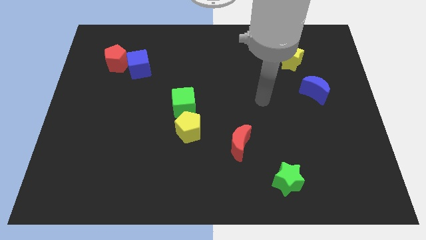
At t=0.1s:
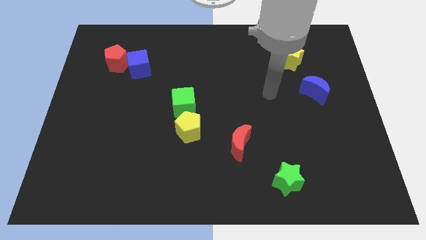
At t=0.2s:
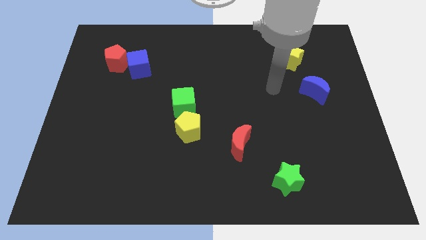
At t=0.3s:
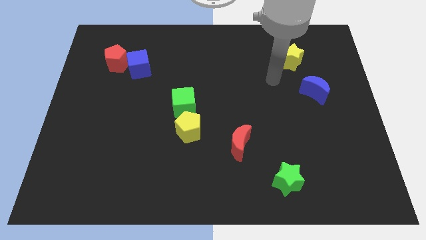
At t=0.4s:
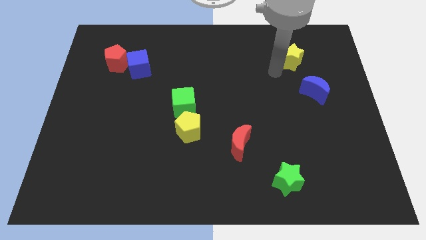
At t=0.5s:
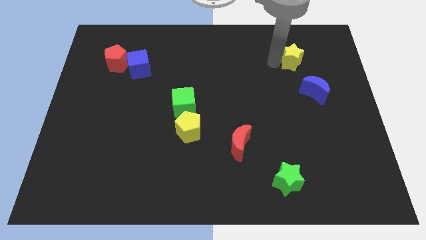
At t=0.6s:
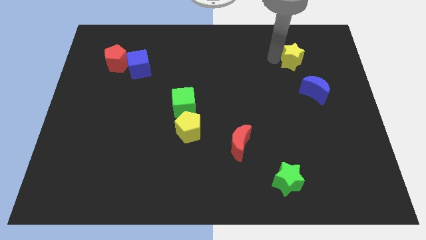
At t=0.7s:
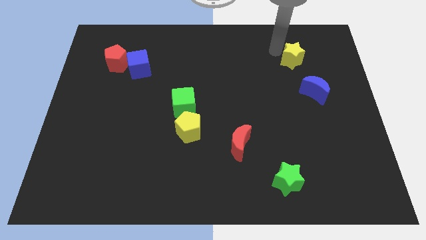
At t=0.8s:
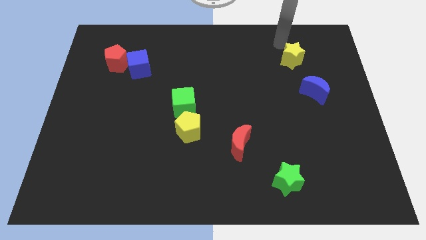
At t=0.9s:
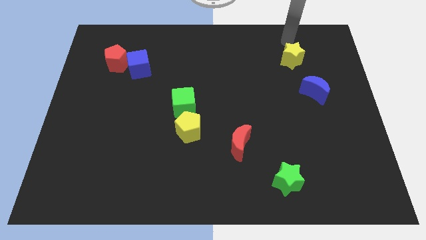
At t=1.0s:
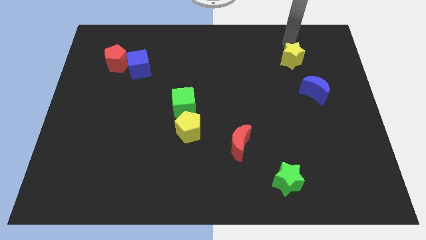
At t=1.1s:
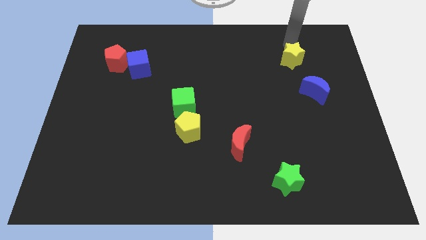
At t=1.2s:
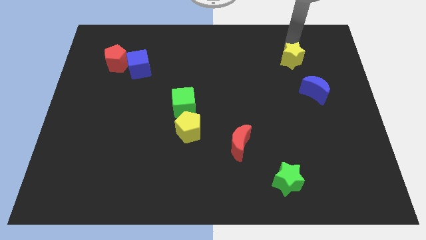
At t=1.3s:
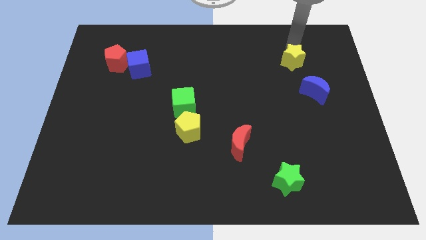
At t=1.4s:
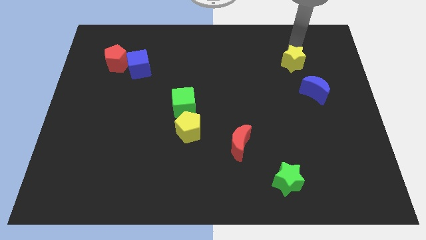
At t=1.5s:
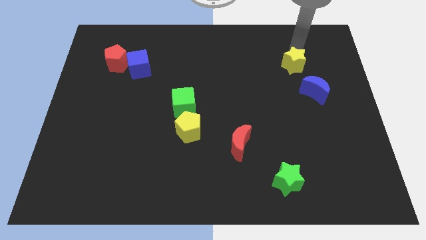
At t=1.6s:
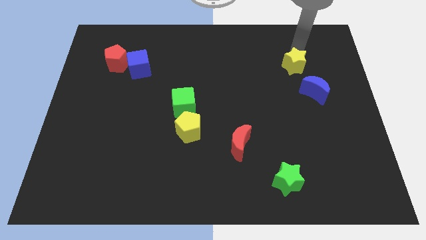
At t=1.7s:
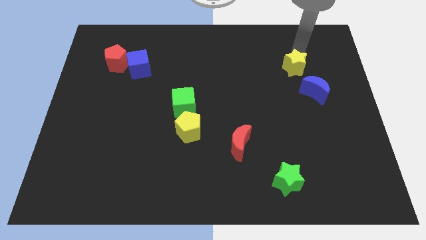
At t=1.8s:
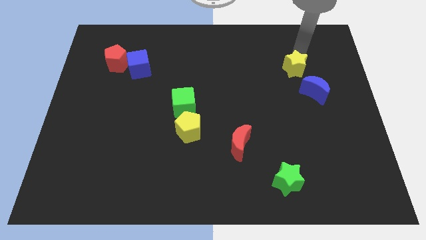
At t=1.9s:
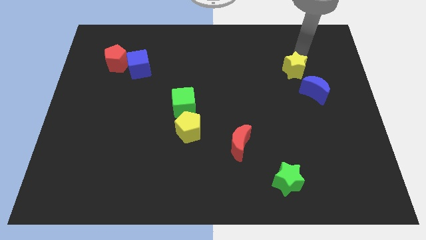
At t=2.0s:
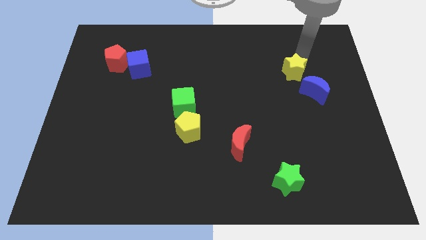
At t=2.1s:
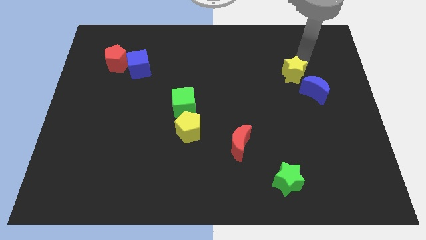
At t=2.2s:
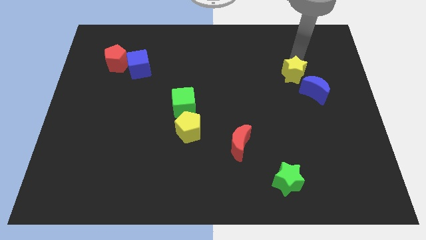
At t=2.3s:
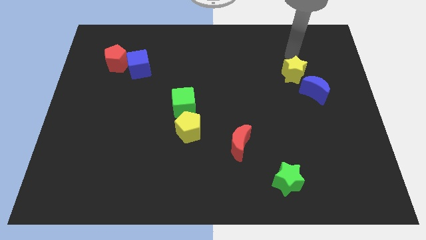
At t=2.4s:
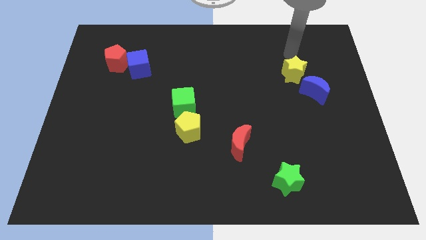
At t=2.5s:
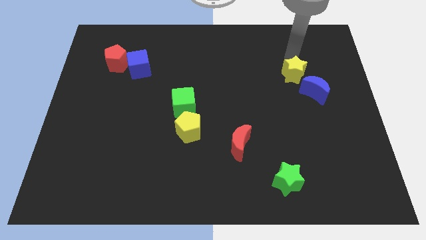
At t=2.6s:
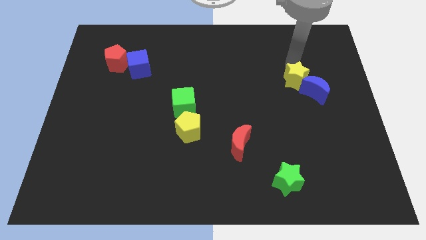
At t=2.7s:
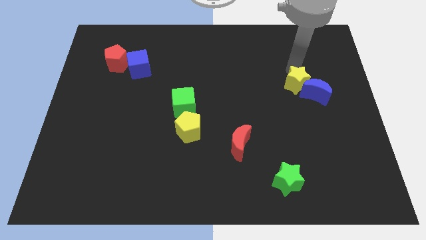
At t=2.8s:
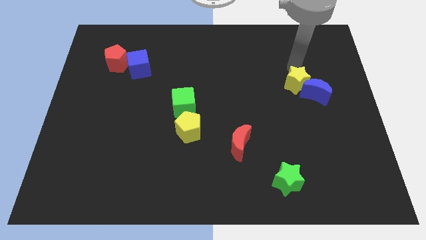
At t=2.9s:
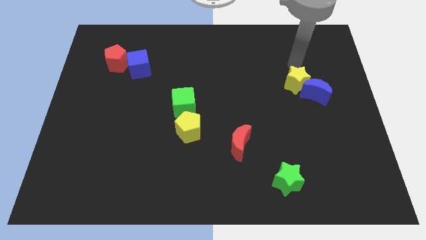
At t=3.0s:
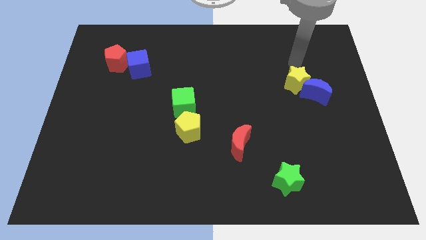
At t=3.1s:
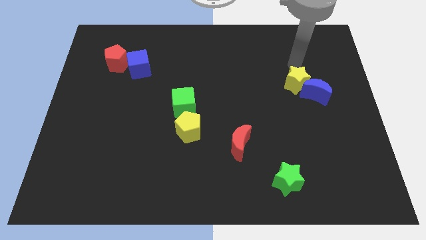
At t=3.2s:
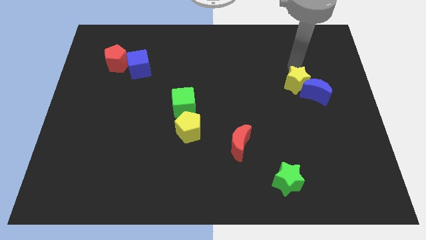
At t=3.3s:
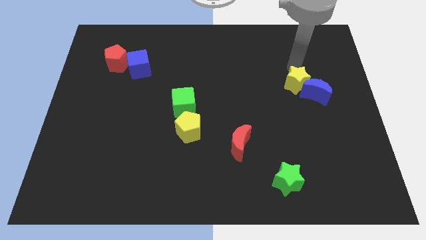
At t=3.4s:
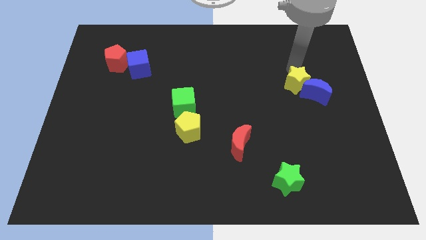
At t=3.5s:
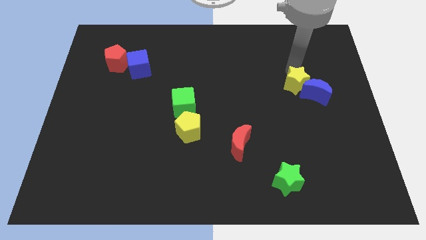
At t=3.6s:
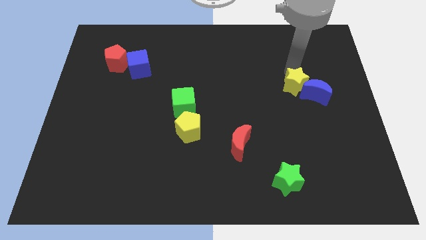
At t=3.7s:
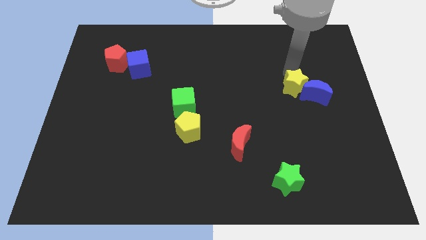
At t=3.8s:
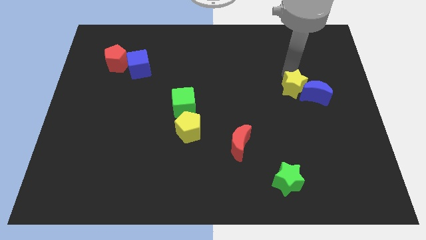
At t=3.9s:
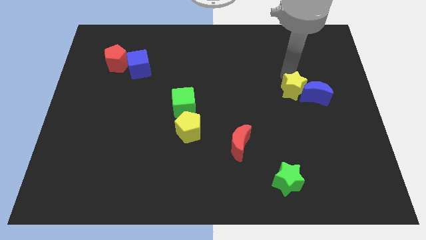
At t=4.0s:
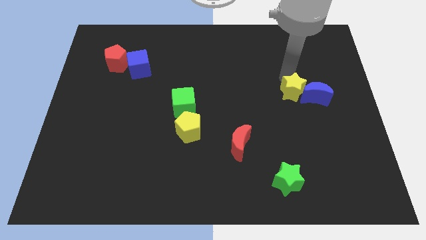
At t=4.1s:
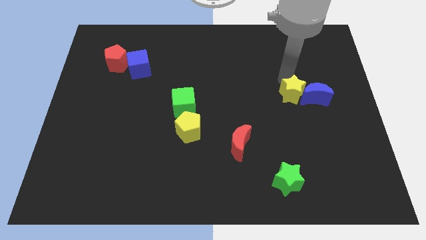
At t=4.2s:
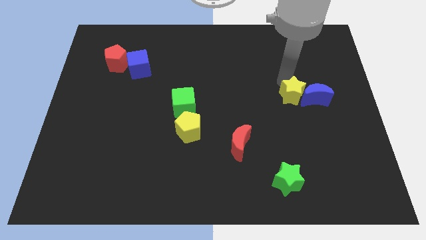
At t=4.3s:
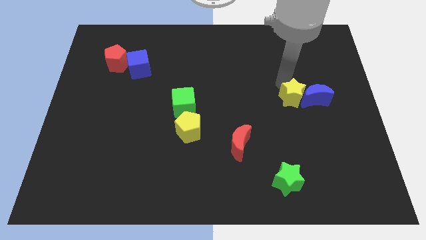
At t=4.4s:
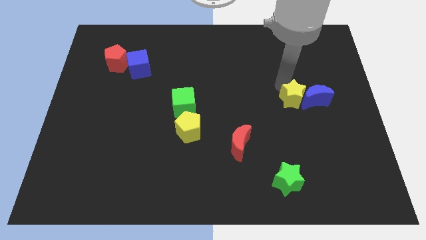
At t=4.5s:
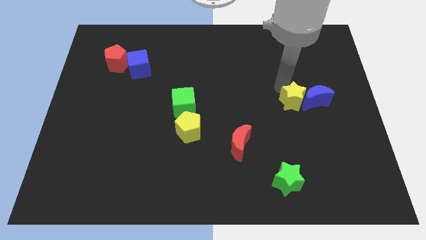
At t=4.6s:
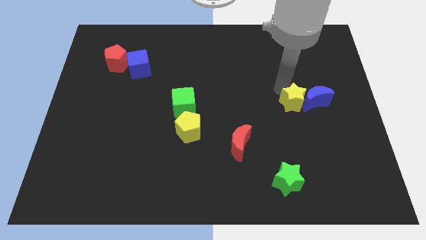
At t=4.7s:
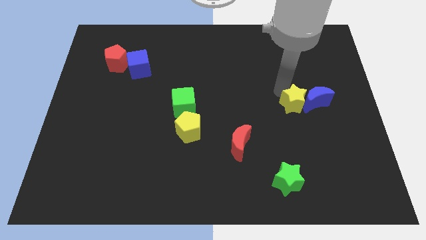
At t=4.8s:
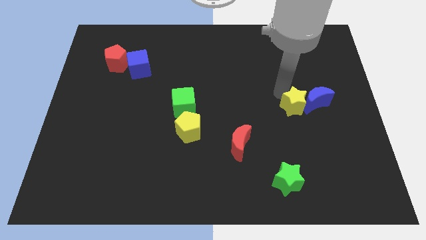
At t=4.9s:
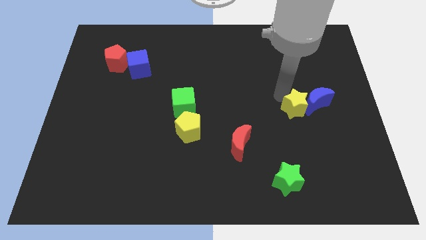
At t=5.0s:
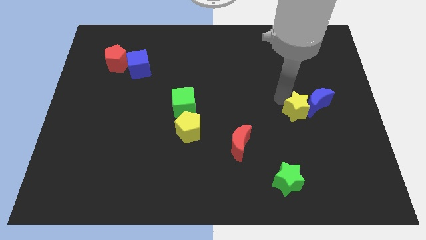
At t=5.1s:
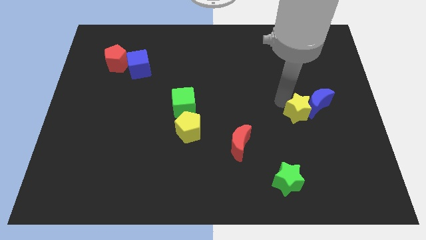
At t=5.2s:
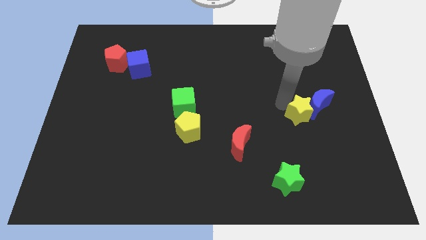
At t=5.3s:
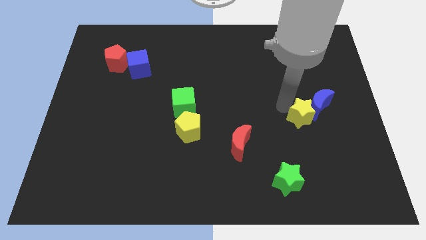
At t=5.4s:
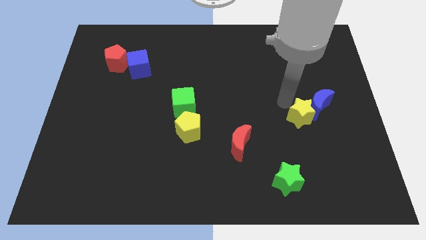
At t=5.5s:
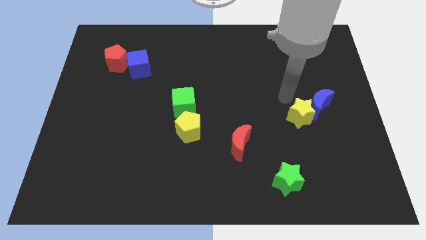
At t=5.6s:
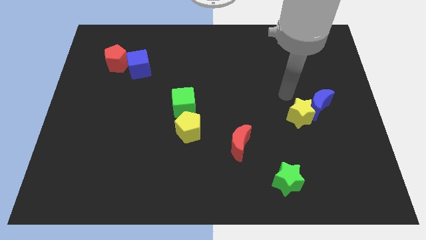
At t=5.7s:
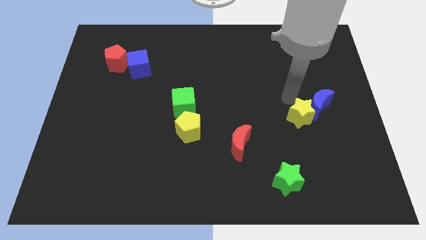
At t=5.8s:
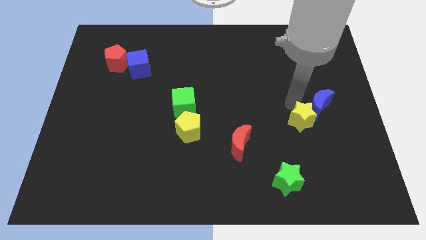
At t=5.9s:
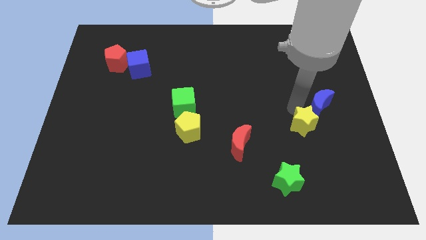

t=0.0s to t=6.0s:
push the yellow star down

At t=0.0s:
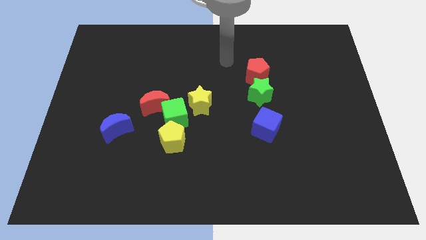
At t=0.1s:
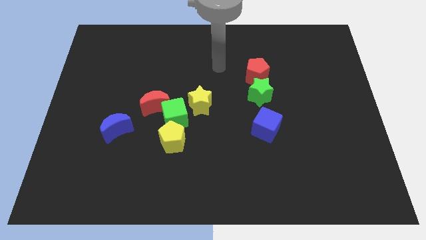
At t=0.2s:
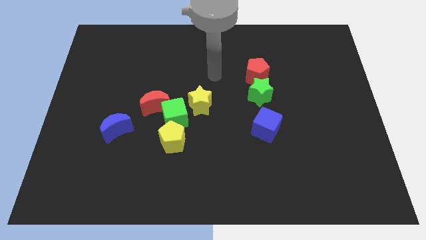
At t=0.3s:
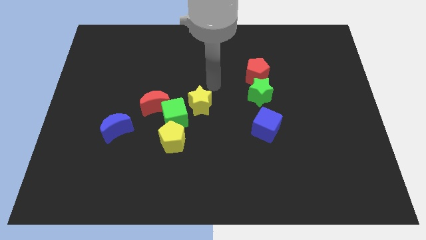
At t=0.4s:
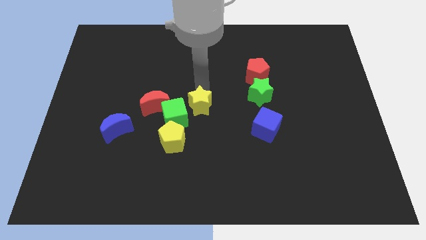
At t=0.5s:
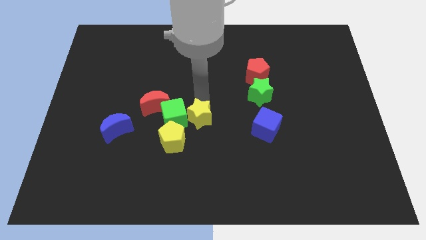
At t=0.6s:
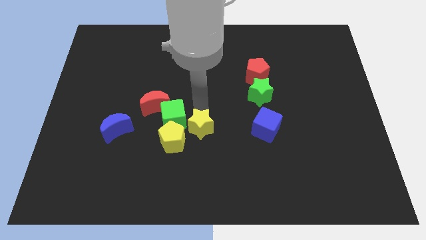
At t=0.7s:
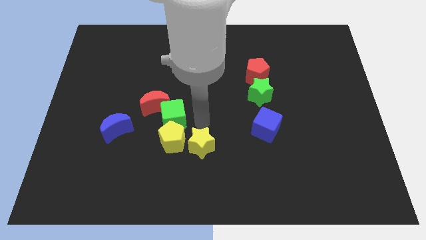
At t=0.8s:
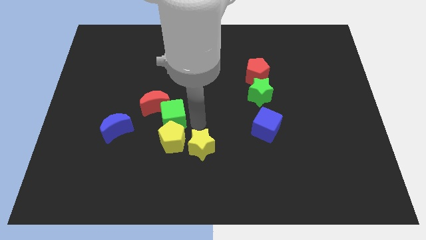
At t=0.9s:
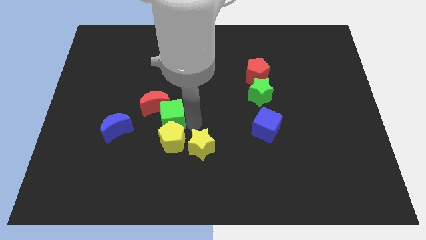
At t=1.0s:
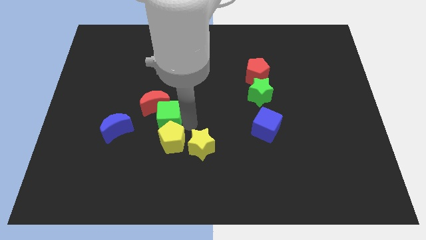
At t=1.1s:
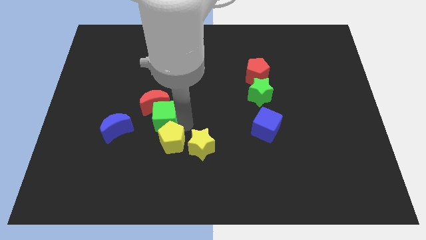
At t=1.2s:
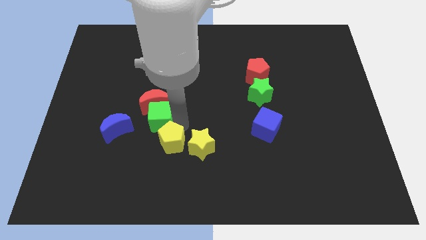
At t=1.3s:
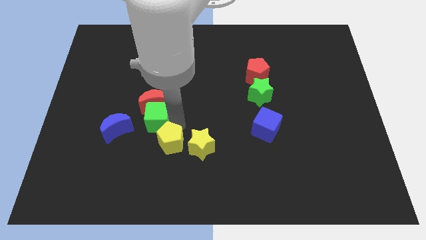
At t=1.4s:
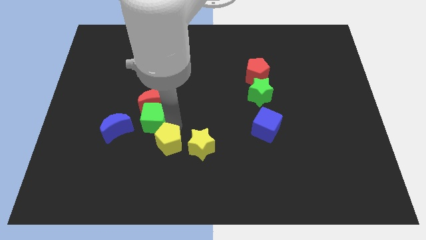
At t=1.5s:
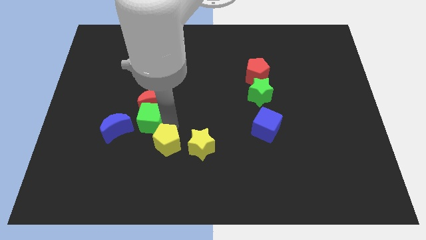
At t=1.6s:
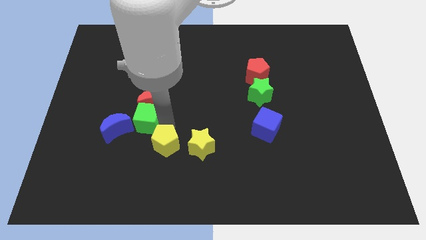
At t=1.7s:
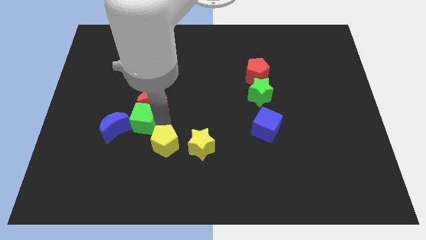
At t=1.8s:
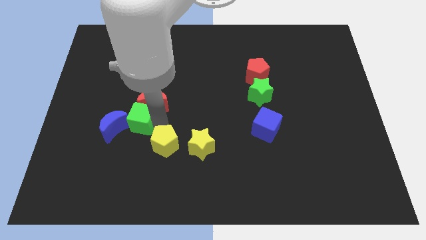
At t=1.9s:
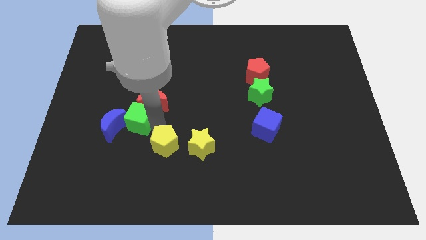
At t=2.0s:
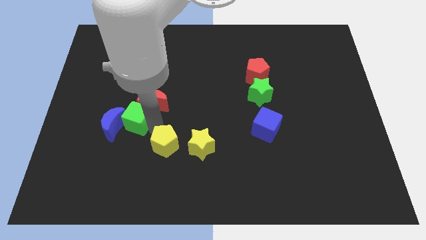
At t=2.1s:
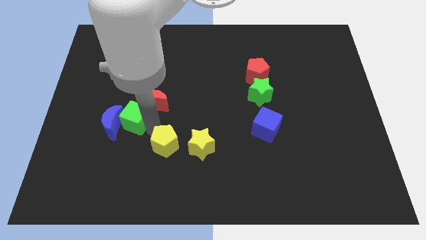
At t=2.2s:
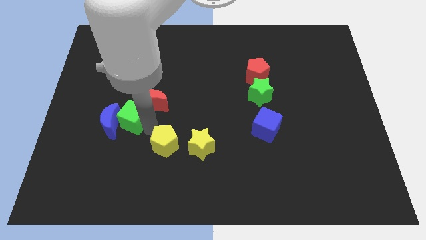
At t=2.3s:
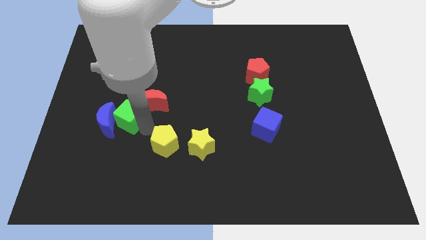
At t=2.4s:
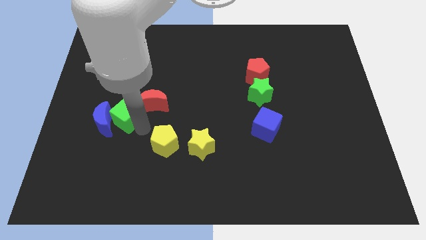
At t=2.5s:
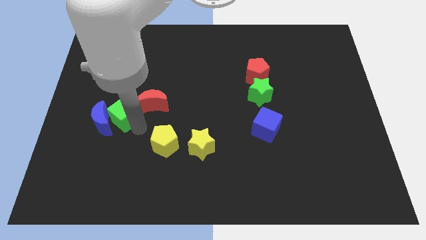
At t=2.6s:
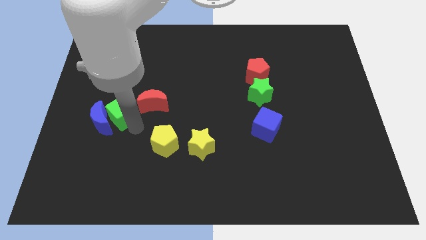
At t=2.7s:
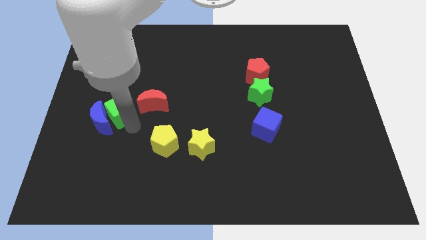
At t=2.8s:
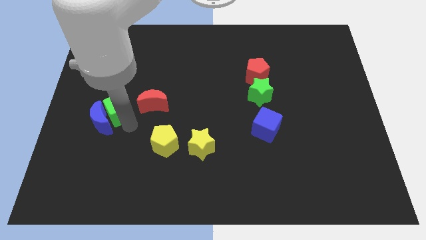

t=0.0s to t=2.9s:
slide the green cube up and to the left diagonally a little
